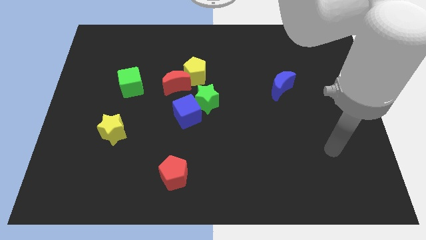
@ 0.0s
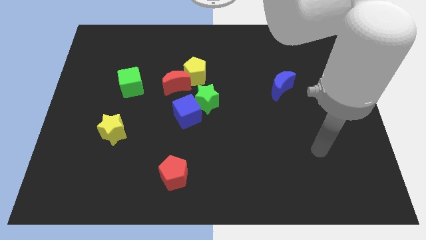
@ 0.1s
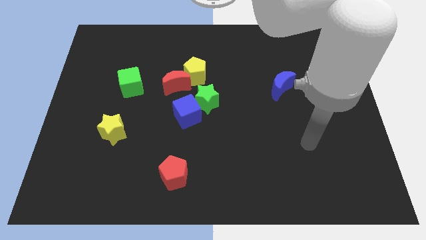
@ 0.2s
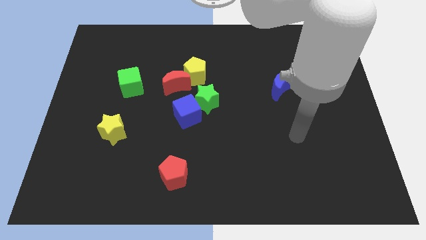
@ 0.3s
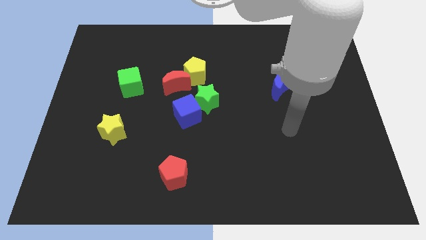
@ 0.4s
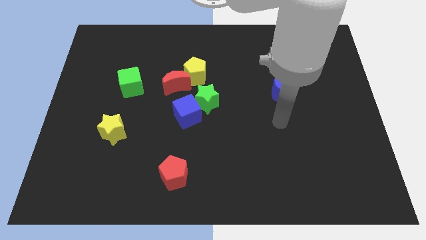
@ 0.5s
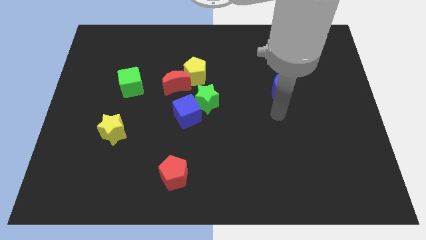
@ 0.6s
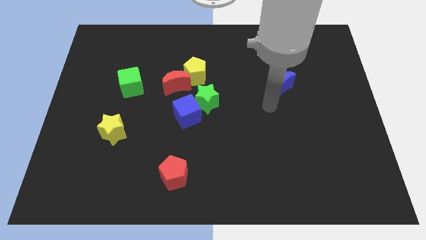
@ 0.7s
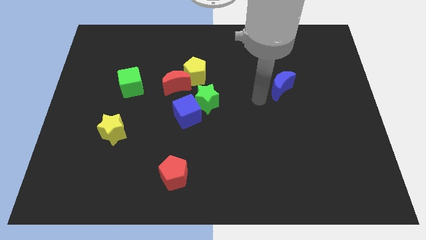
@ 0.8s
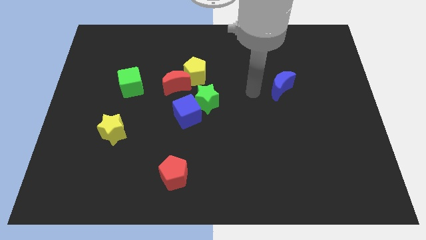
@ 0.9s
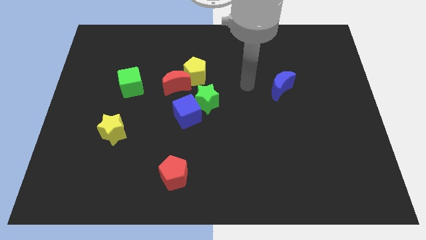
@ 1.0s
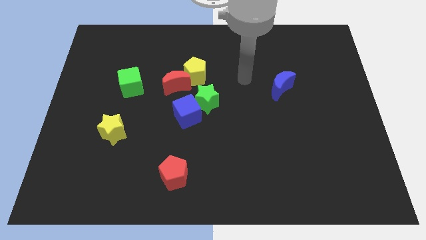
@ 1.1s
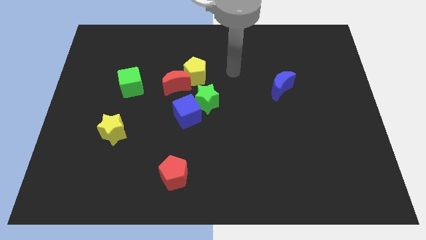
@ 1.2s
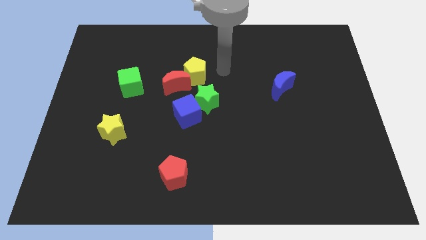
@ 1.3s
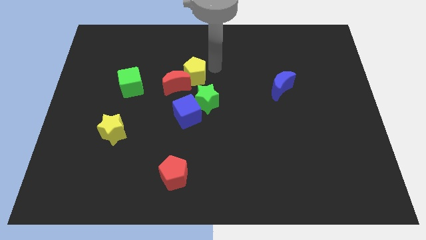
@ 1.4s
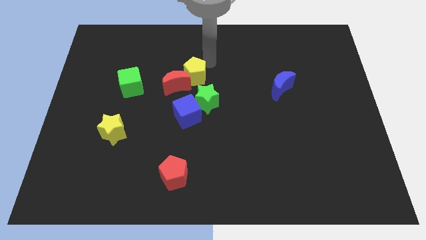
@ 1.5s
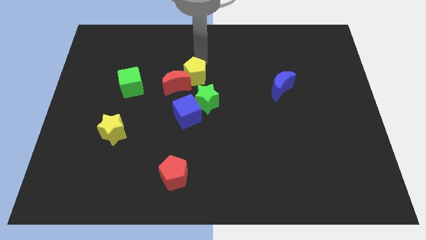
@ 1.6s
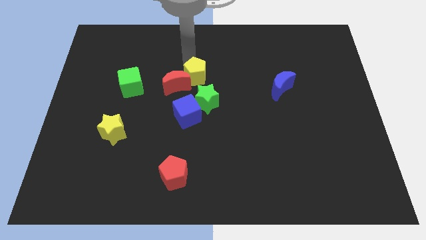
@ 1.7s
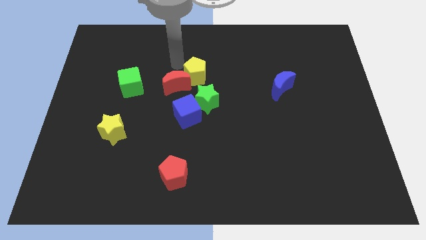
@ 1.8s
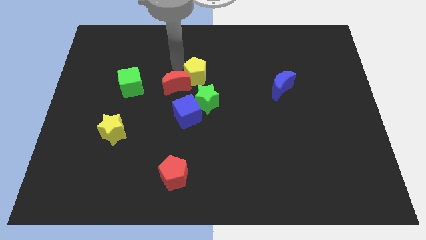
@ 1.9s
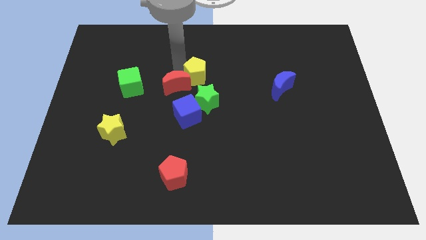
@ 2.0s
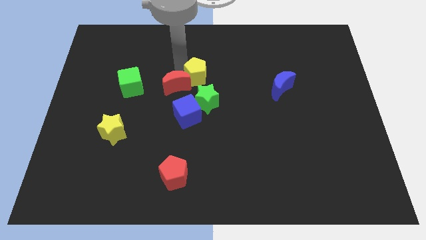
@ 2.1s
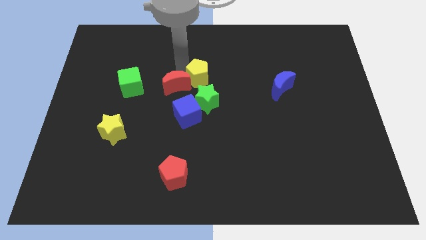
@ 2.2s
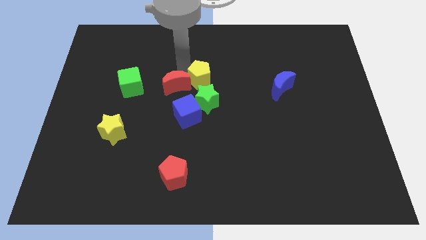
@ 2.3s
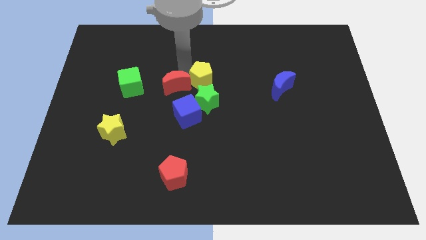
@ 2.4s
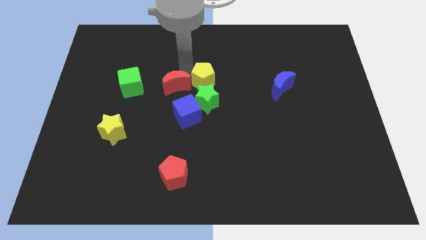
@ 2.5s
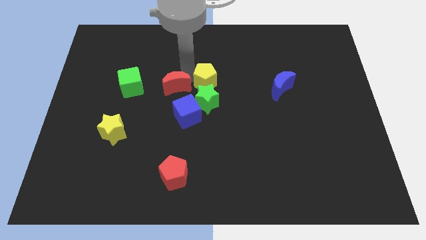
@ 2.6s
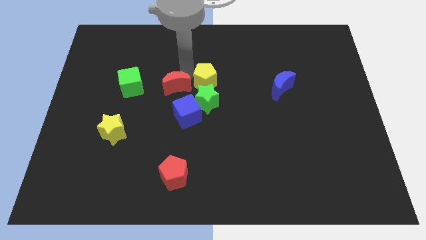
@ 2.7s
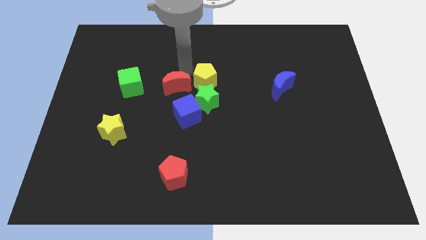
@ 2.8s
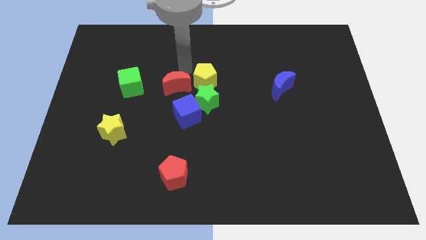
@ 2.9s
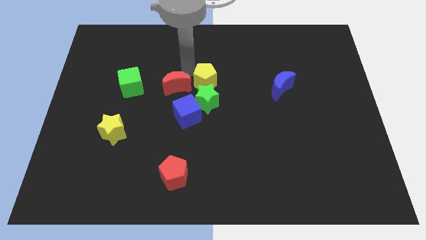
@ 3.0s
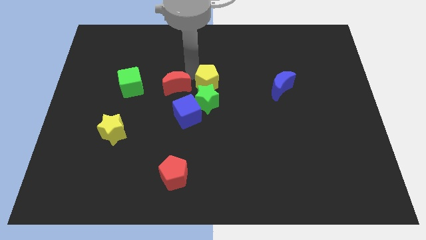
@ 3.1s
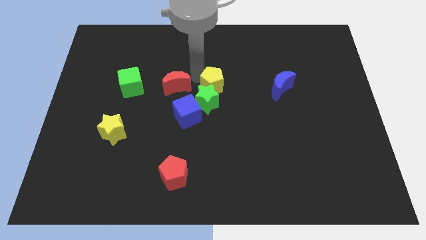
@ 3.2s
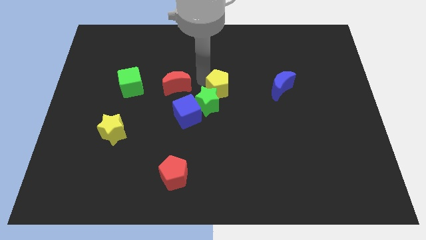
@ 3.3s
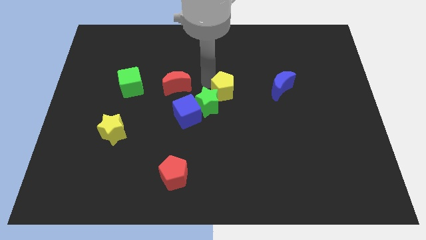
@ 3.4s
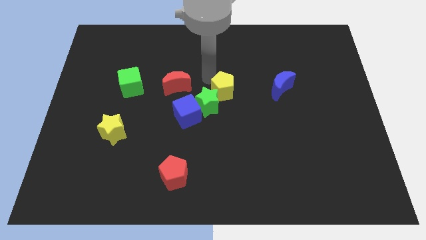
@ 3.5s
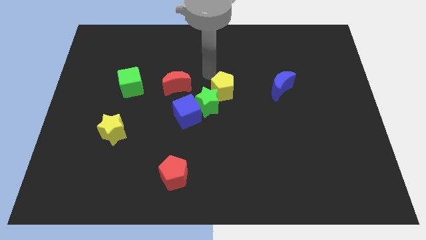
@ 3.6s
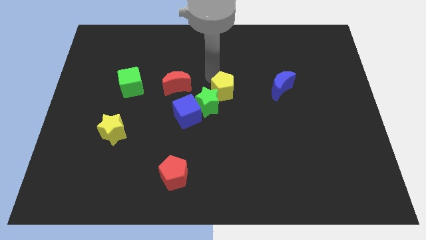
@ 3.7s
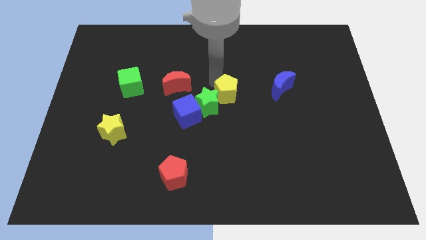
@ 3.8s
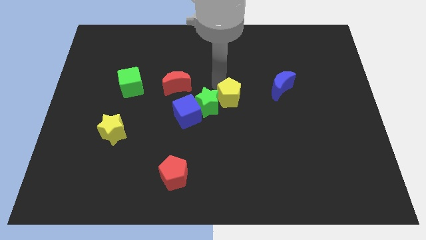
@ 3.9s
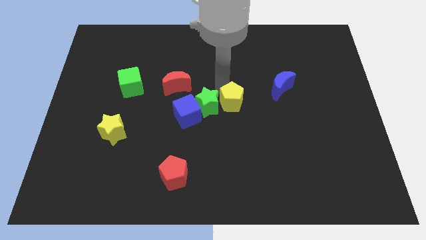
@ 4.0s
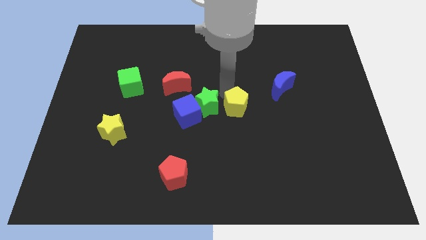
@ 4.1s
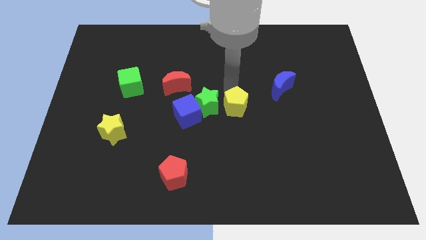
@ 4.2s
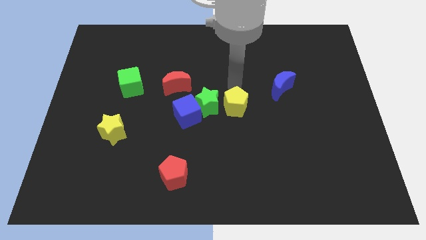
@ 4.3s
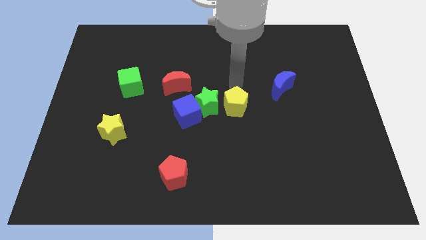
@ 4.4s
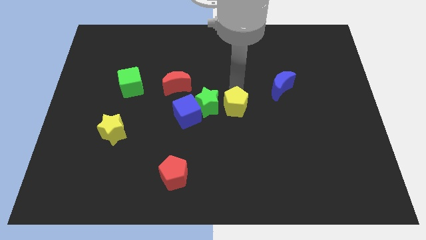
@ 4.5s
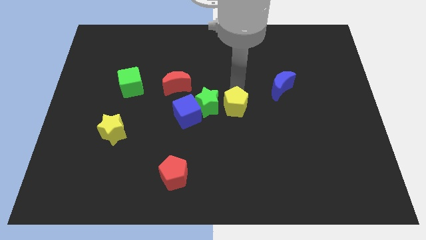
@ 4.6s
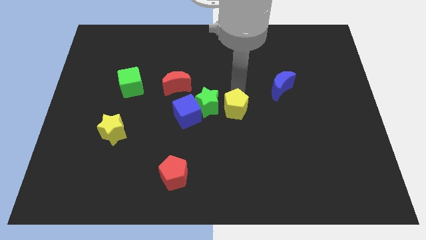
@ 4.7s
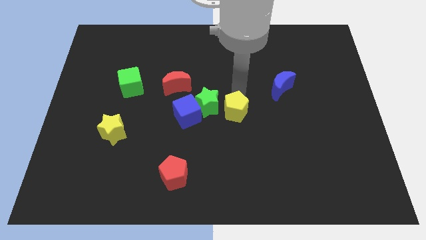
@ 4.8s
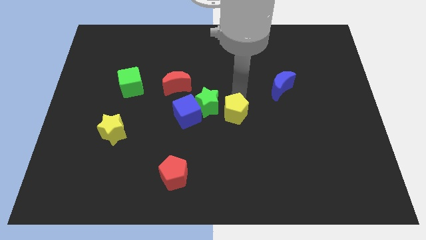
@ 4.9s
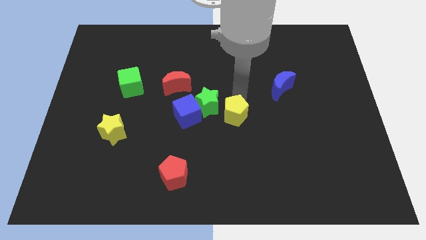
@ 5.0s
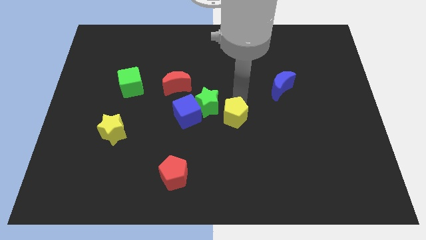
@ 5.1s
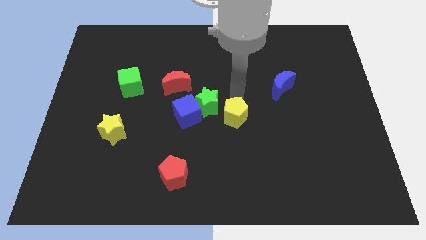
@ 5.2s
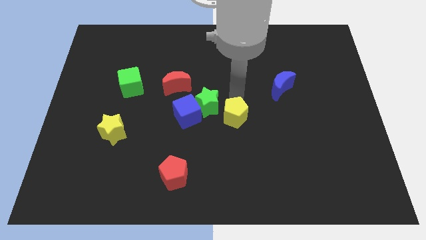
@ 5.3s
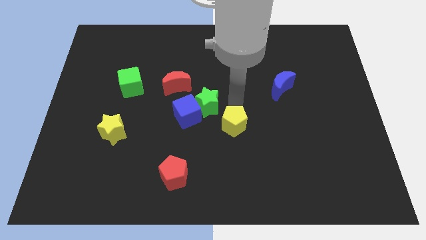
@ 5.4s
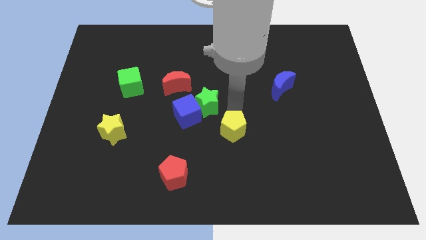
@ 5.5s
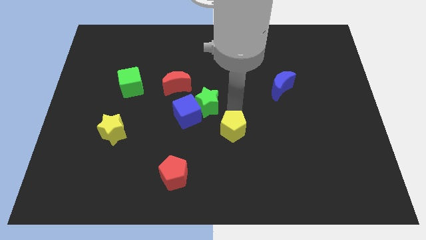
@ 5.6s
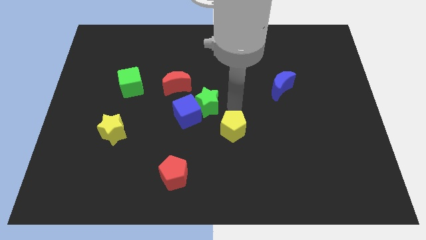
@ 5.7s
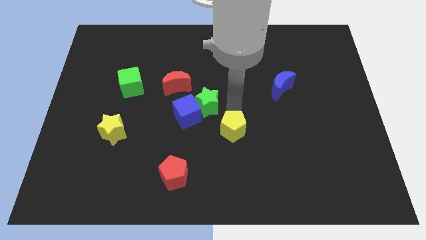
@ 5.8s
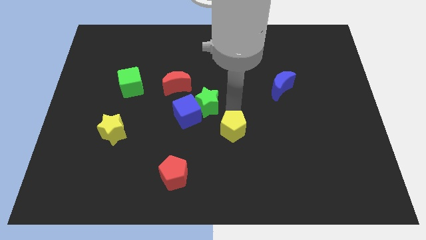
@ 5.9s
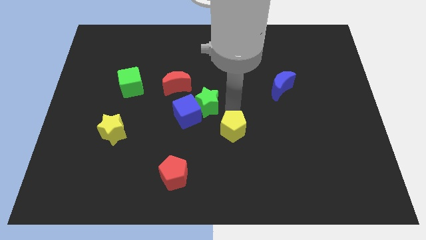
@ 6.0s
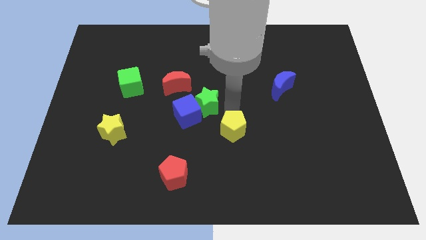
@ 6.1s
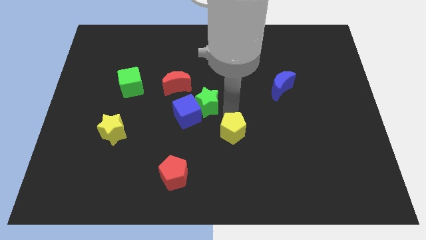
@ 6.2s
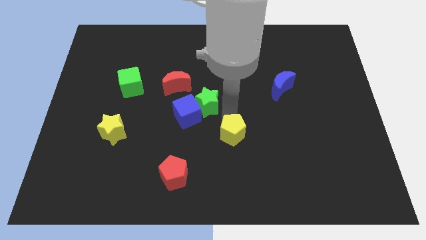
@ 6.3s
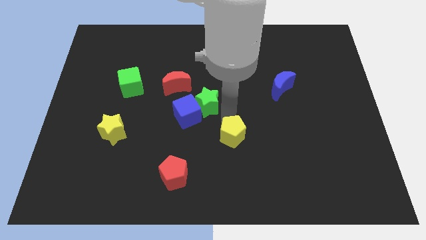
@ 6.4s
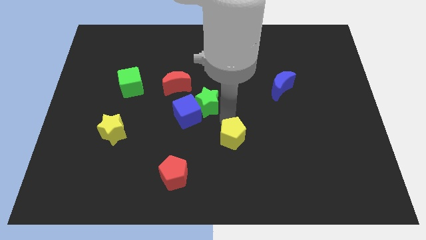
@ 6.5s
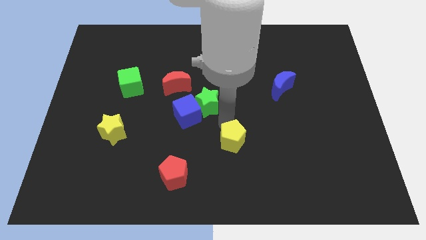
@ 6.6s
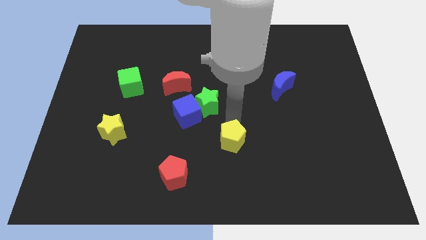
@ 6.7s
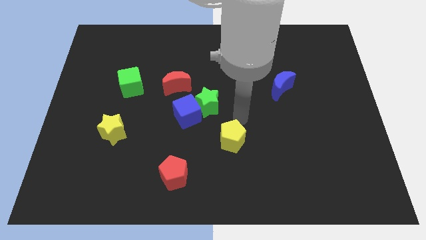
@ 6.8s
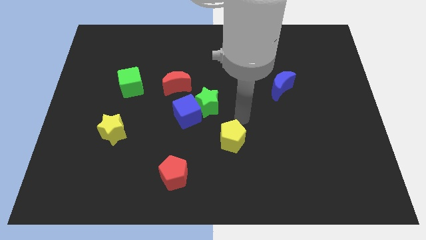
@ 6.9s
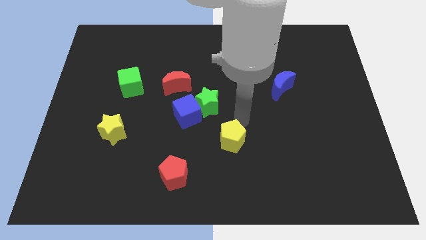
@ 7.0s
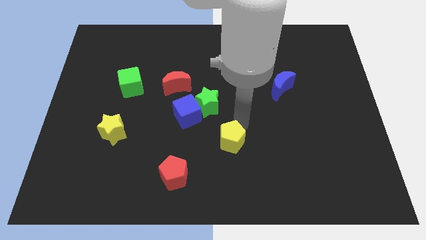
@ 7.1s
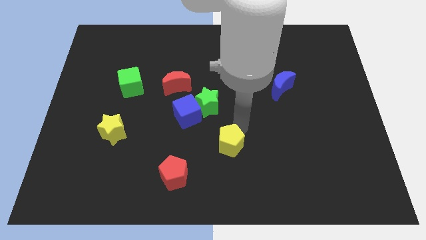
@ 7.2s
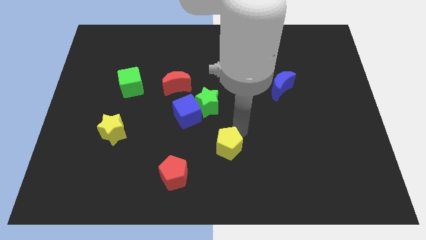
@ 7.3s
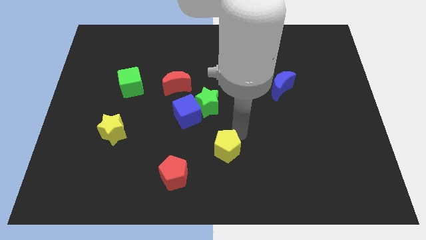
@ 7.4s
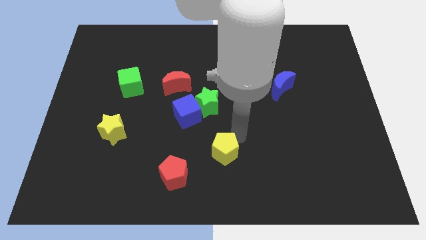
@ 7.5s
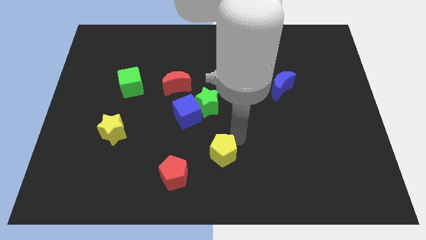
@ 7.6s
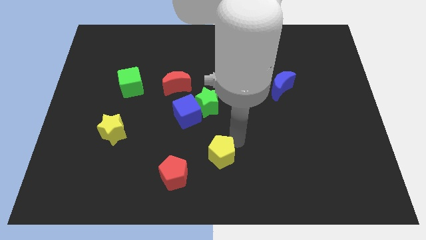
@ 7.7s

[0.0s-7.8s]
slide the yellow pentagon to the bottom side
